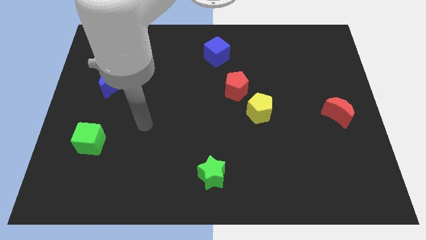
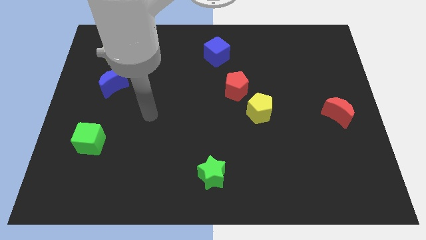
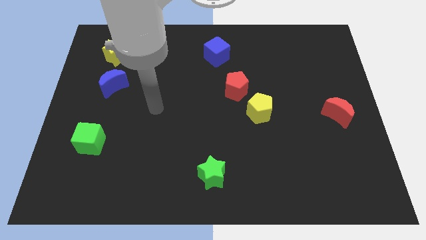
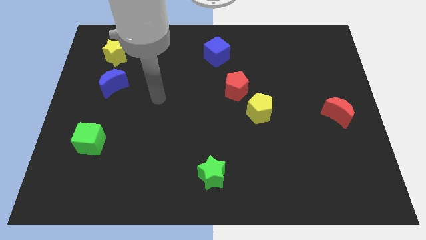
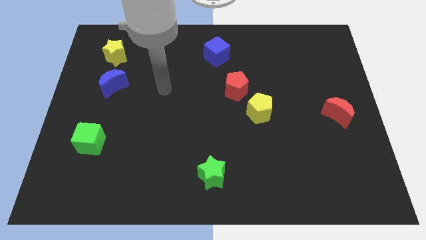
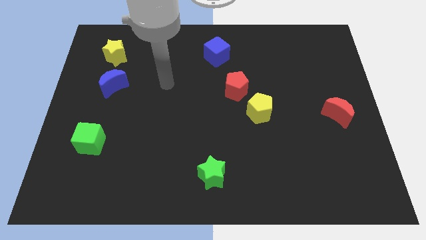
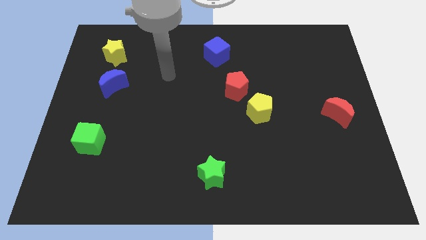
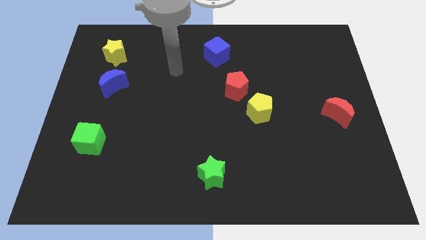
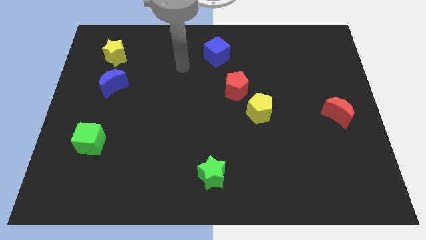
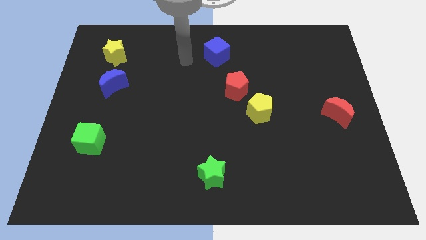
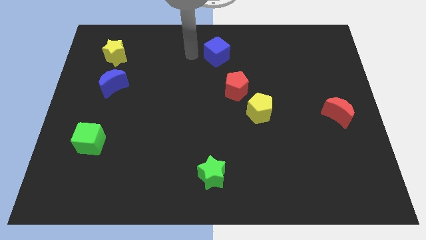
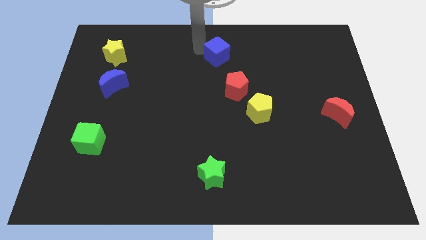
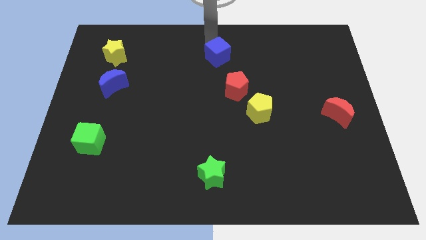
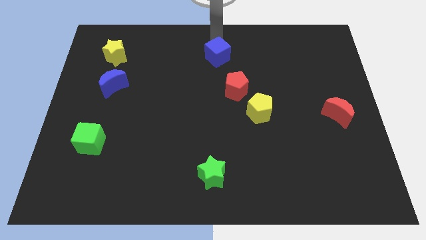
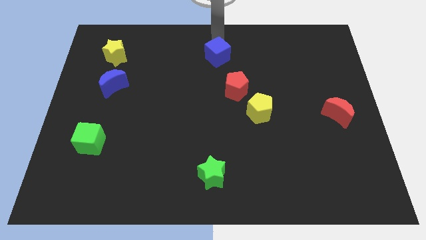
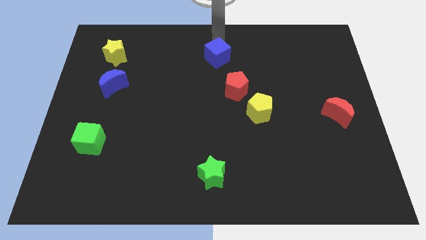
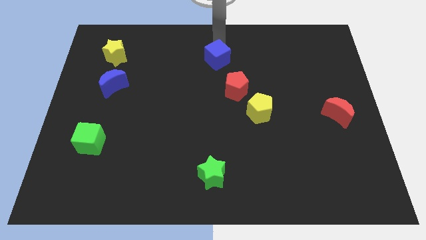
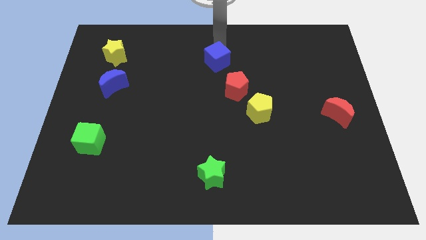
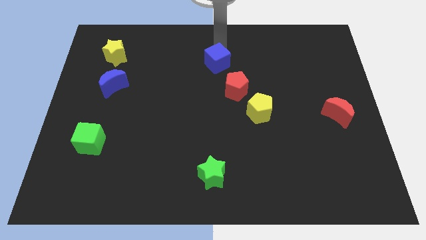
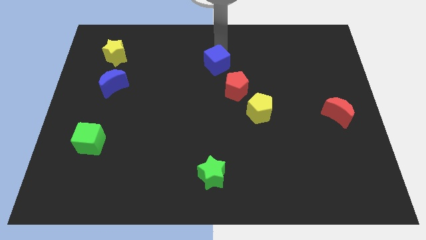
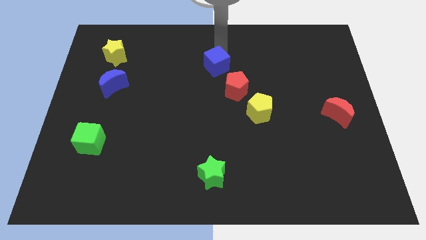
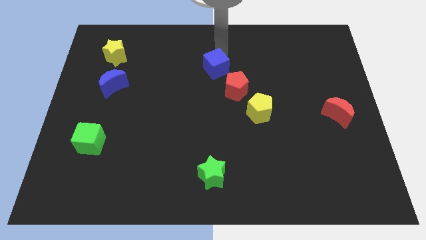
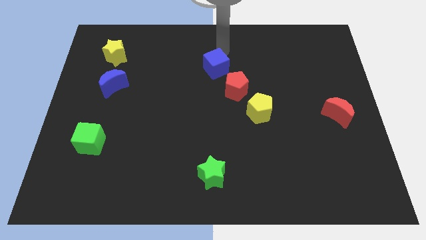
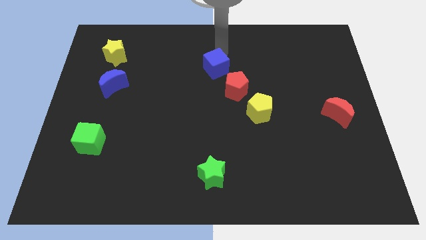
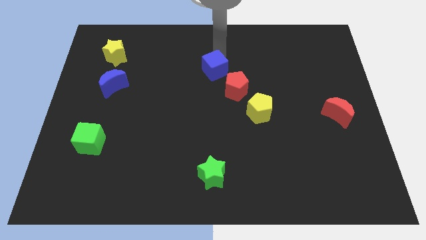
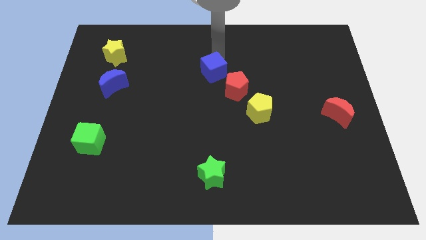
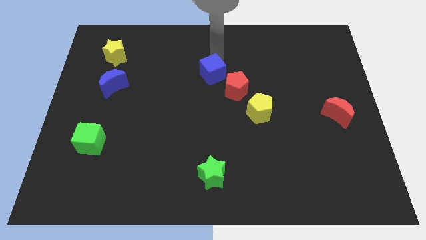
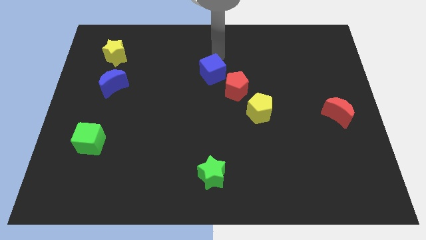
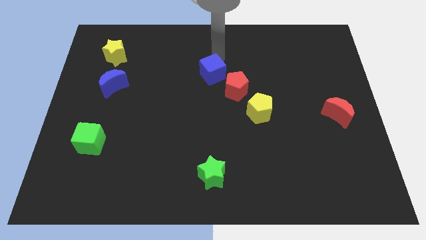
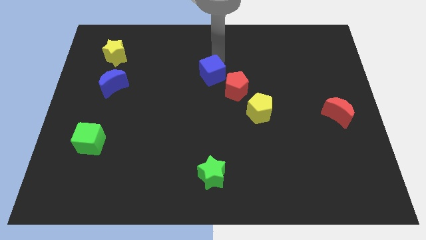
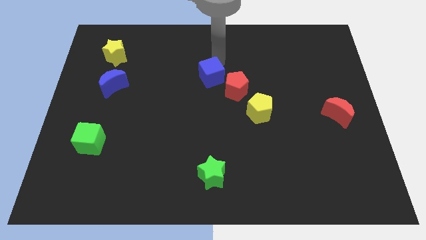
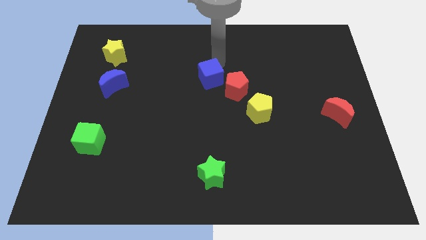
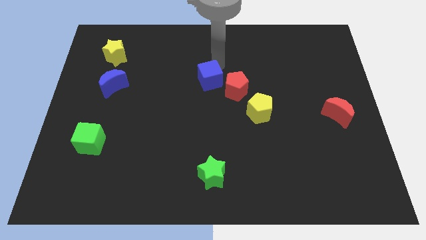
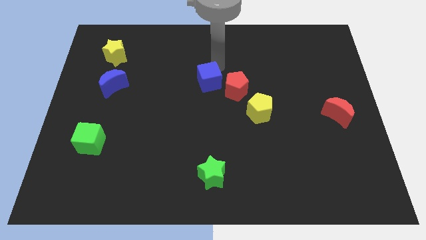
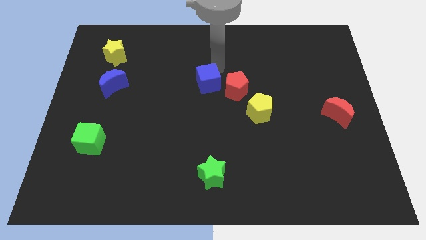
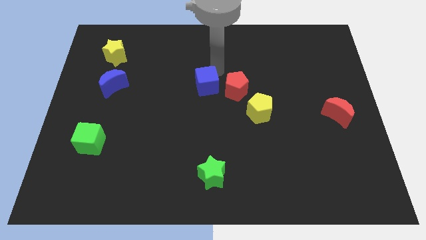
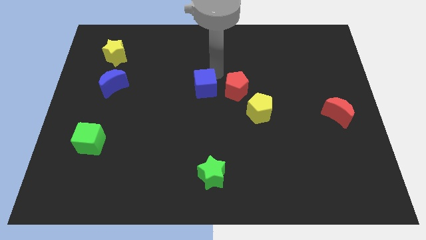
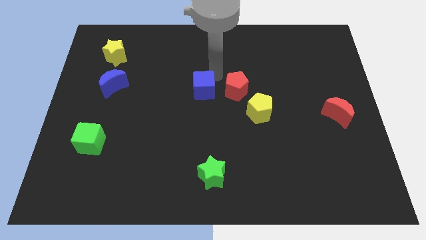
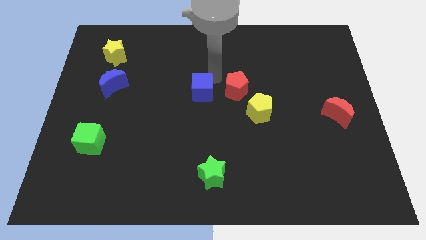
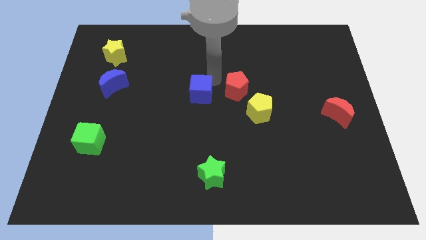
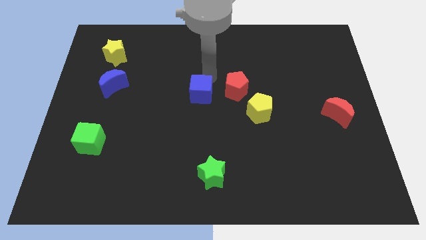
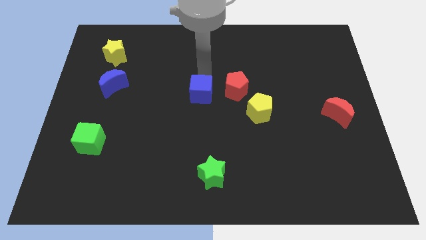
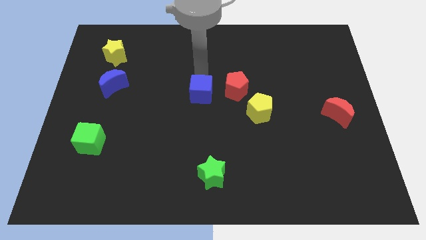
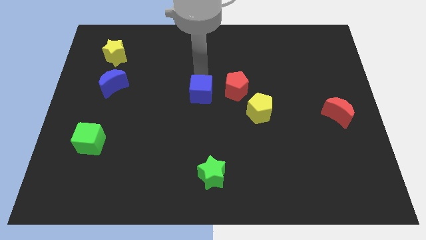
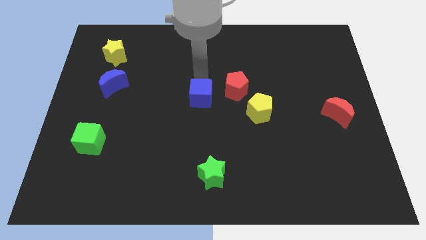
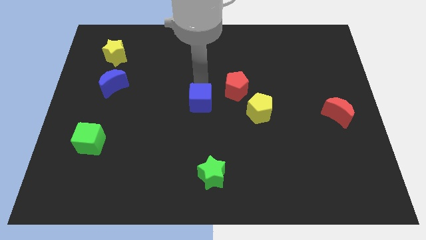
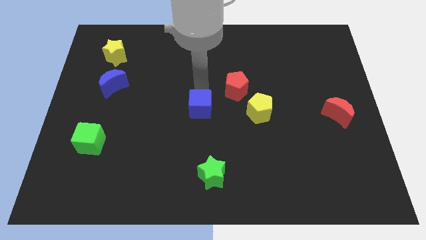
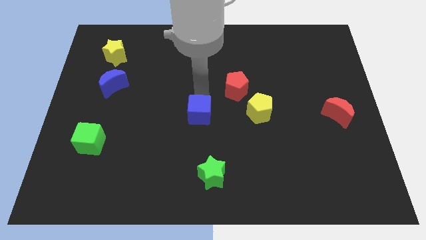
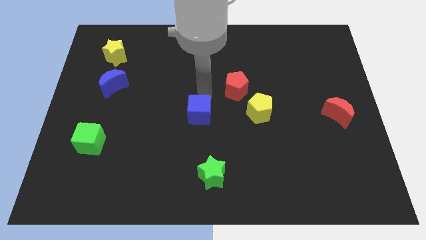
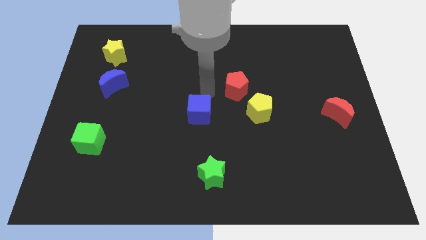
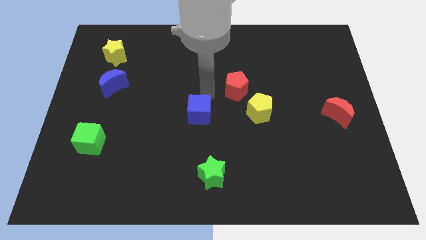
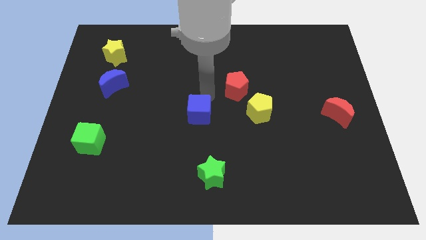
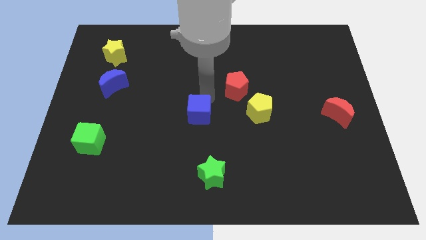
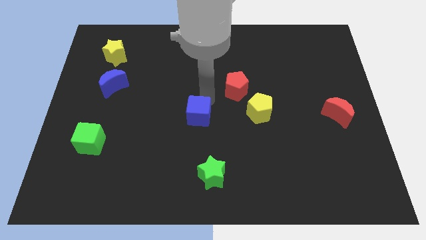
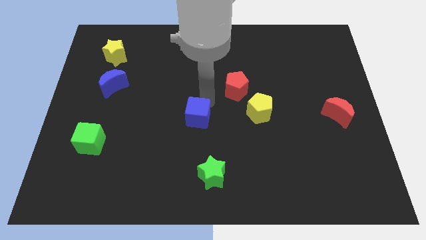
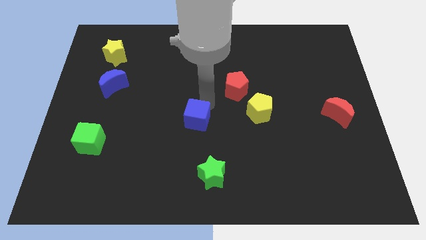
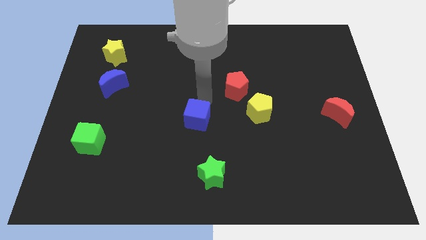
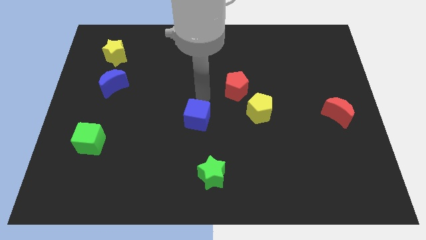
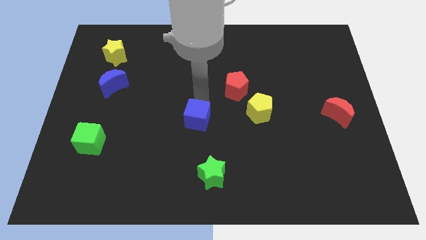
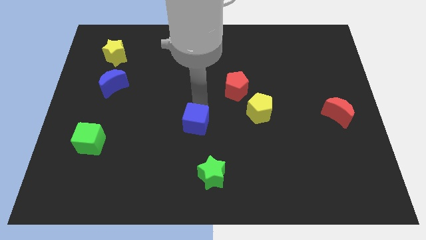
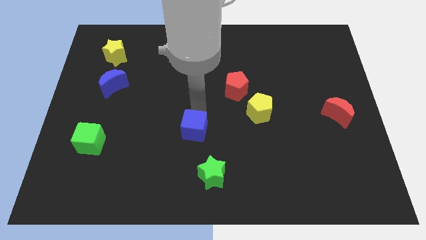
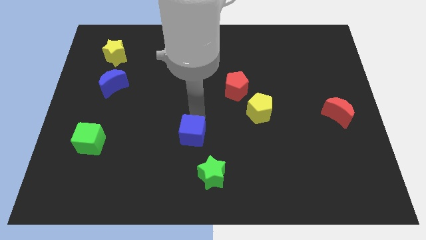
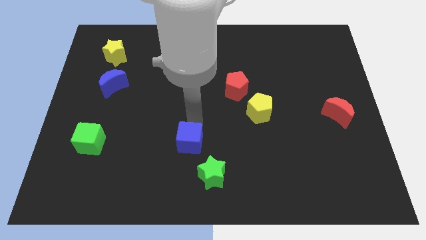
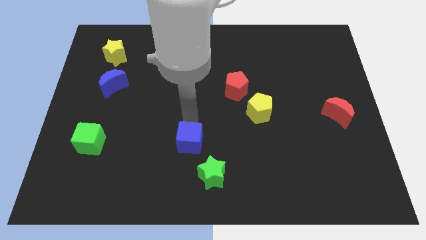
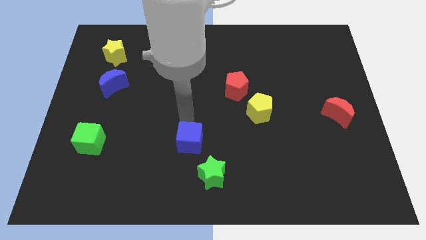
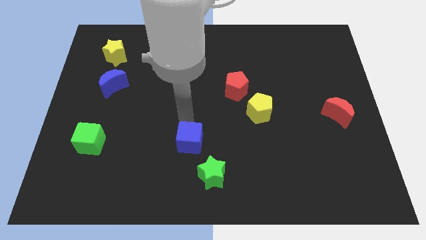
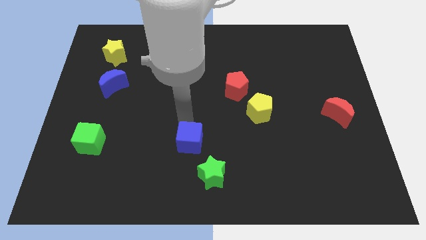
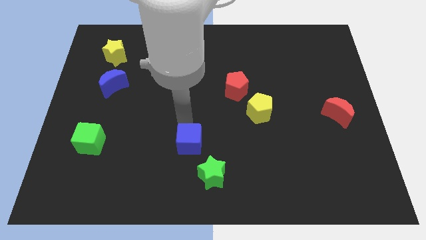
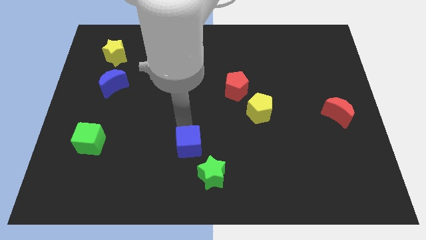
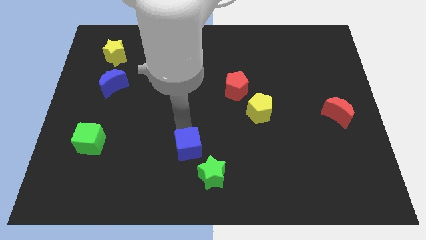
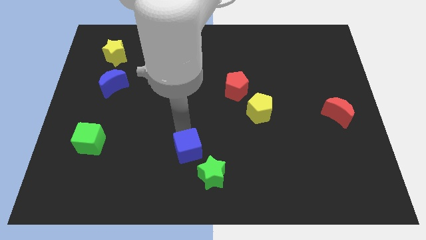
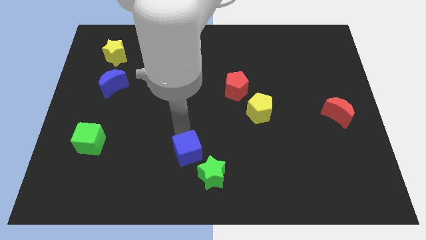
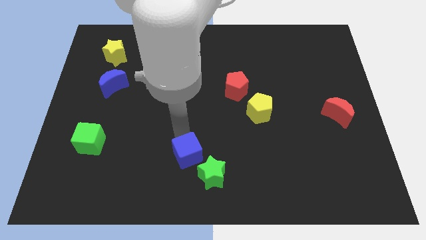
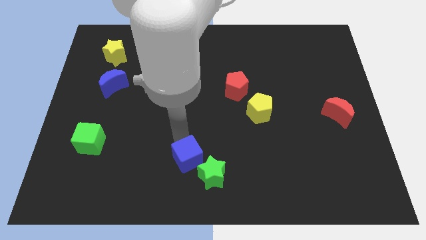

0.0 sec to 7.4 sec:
push the blue cube to the bottom side
